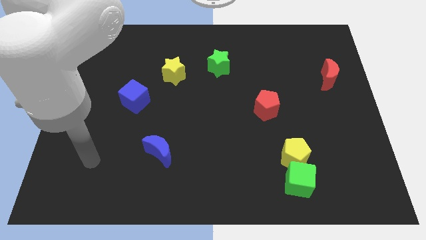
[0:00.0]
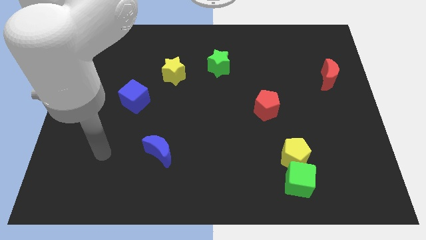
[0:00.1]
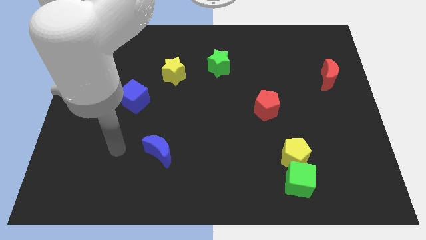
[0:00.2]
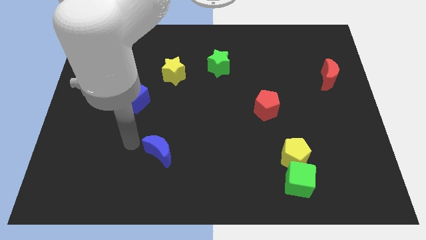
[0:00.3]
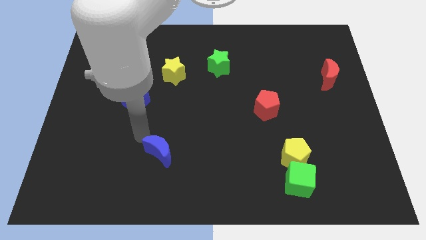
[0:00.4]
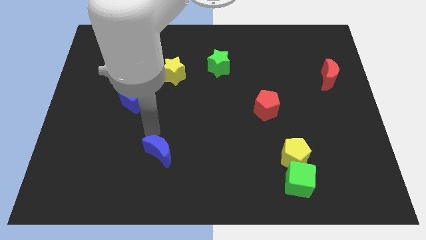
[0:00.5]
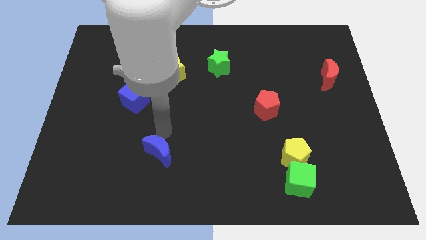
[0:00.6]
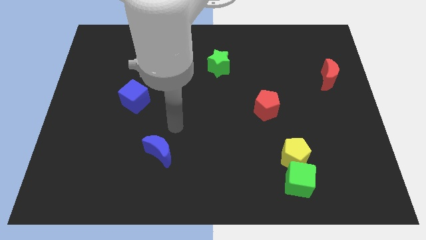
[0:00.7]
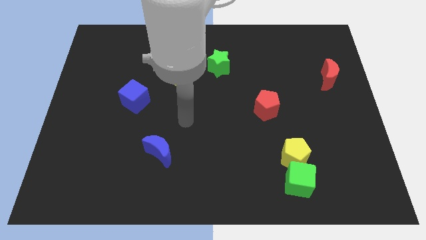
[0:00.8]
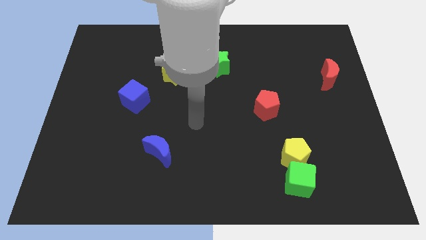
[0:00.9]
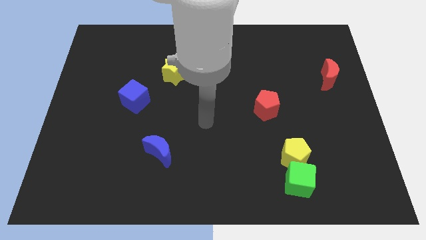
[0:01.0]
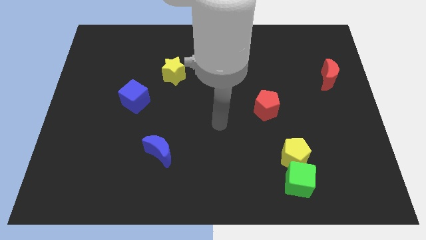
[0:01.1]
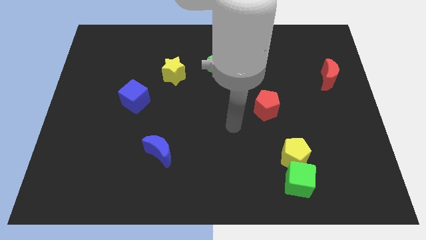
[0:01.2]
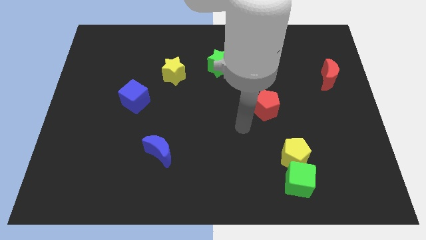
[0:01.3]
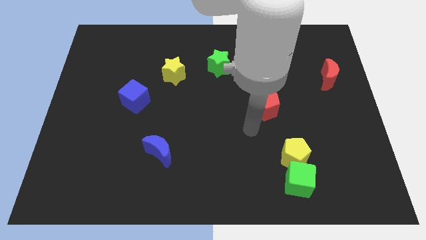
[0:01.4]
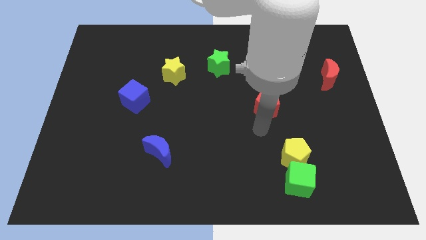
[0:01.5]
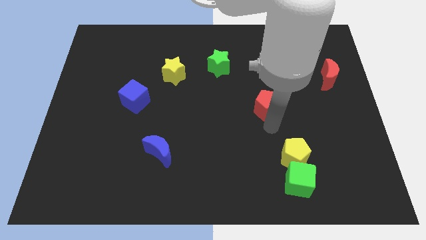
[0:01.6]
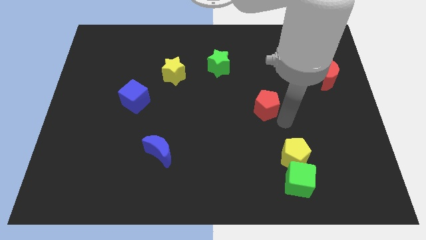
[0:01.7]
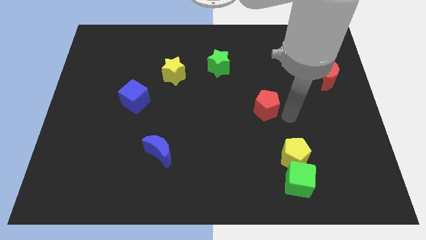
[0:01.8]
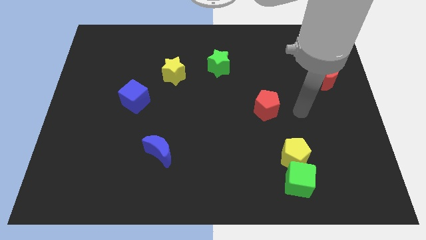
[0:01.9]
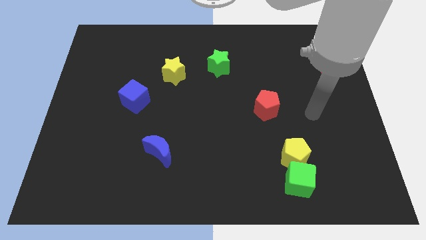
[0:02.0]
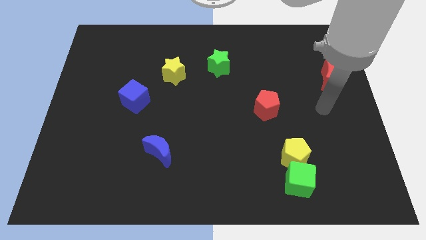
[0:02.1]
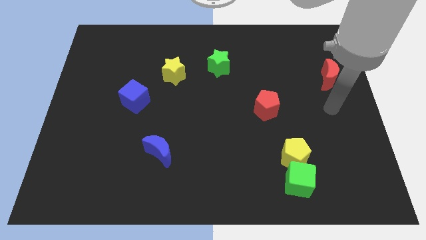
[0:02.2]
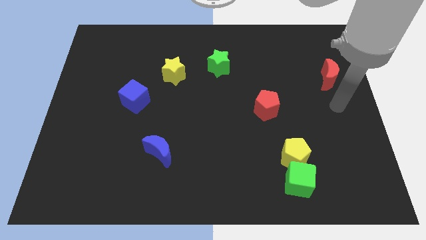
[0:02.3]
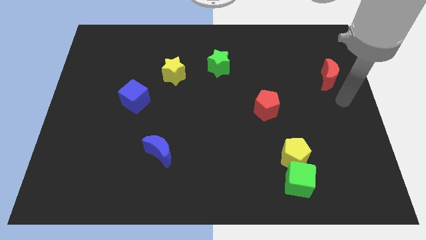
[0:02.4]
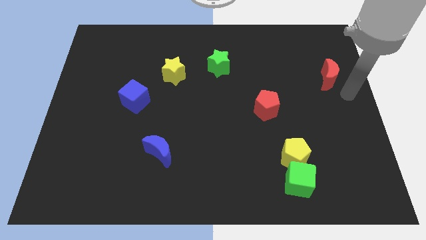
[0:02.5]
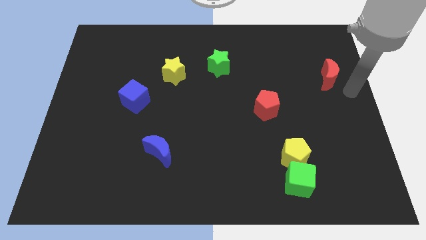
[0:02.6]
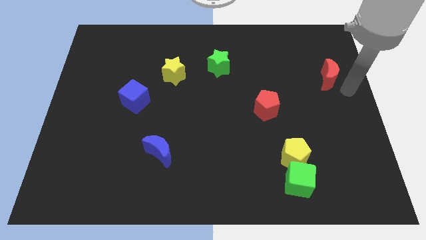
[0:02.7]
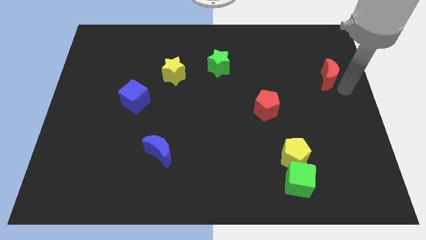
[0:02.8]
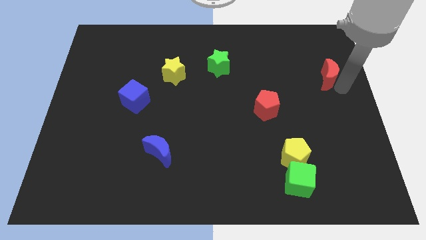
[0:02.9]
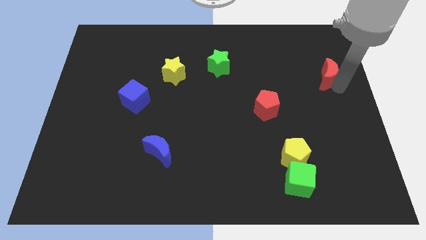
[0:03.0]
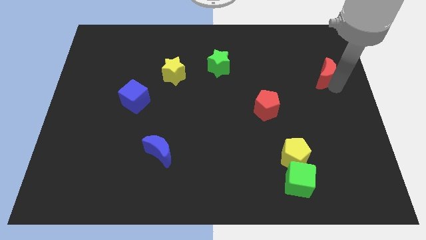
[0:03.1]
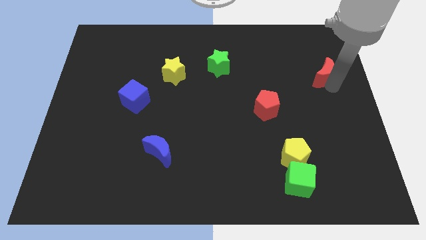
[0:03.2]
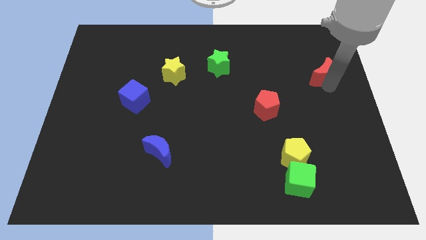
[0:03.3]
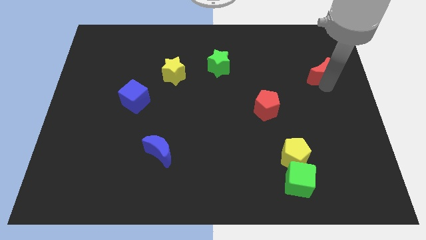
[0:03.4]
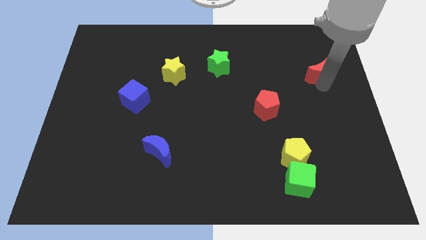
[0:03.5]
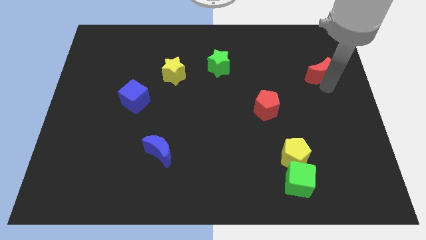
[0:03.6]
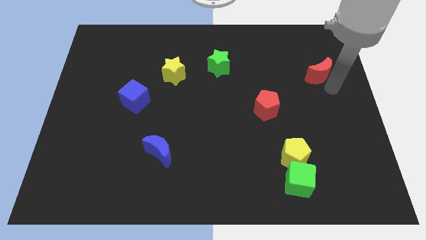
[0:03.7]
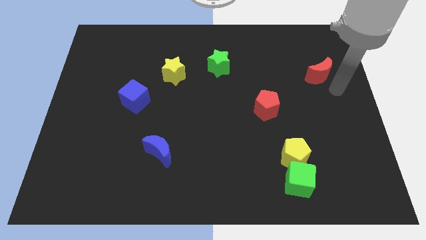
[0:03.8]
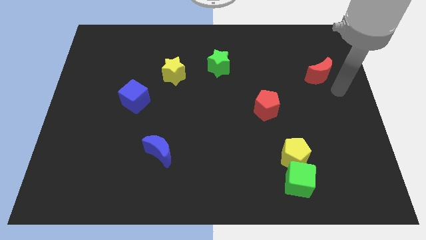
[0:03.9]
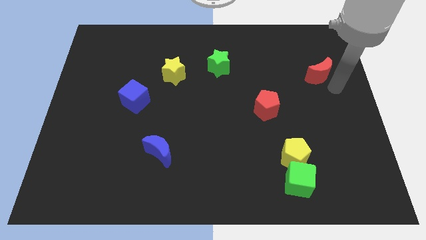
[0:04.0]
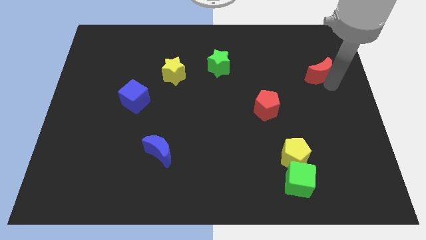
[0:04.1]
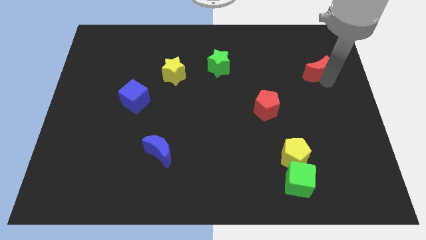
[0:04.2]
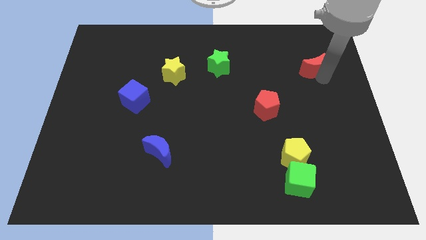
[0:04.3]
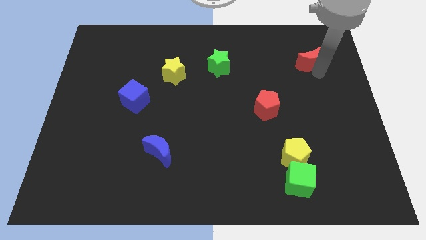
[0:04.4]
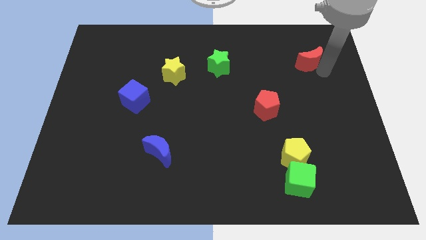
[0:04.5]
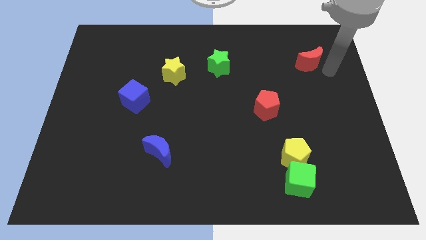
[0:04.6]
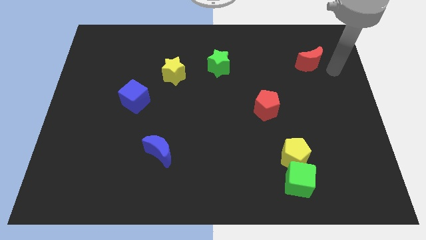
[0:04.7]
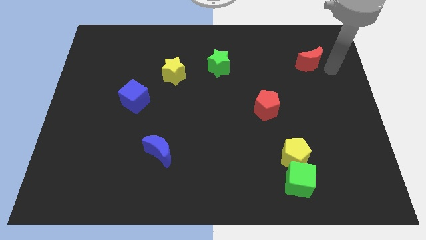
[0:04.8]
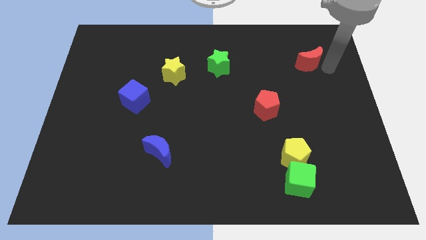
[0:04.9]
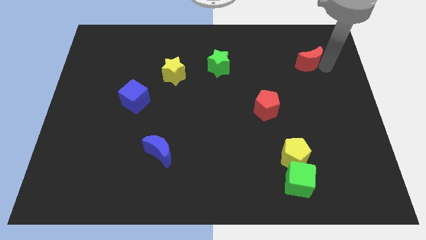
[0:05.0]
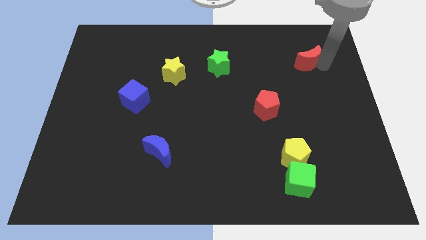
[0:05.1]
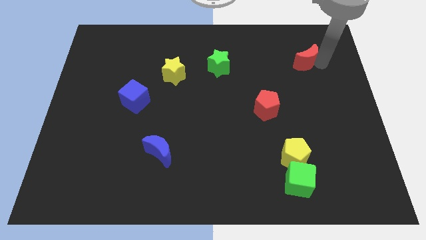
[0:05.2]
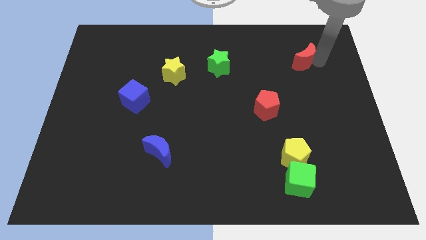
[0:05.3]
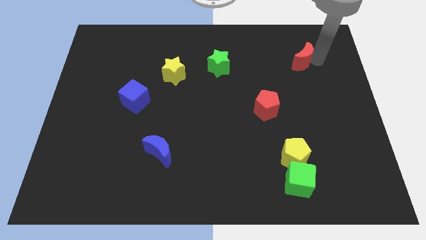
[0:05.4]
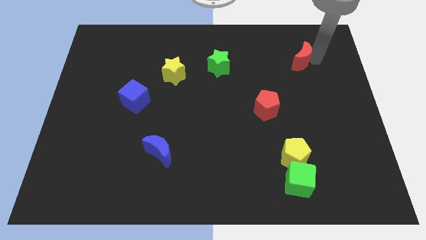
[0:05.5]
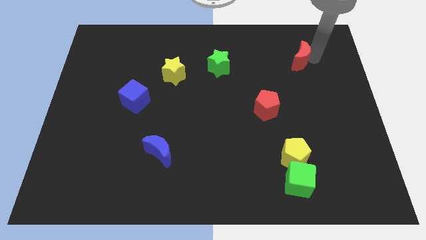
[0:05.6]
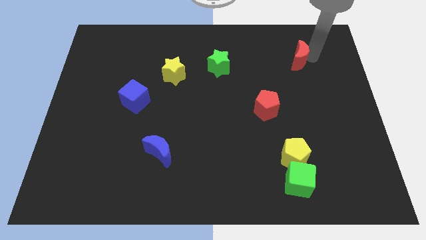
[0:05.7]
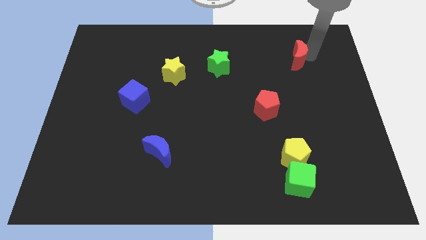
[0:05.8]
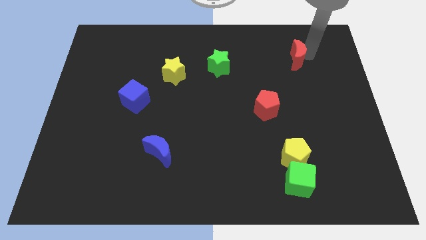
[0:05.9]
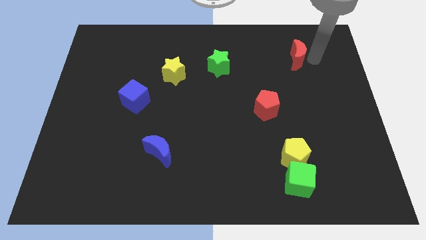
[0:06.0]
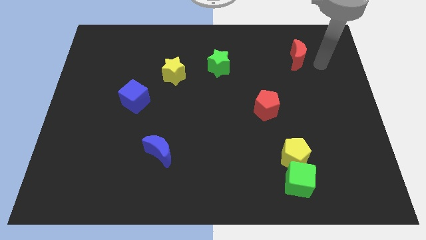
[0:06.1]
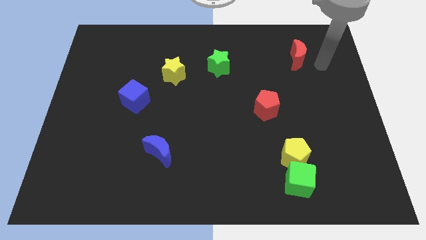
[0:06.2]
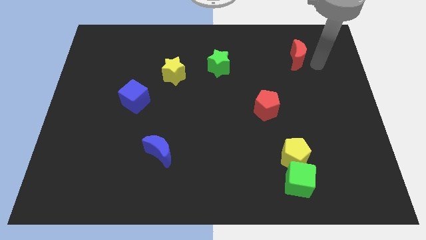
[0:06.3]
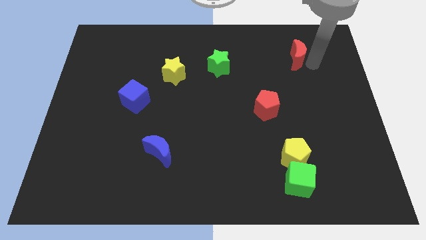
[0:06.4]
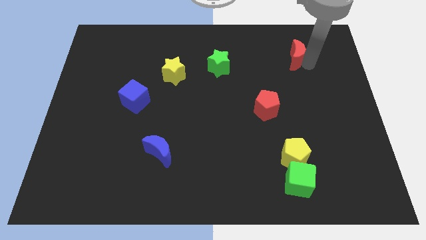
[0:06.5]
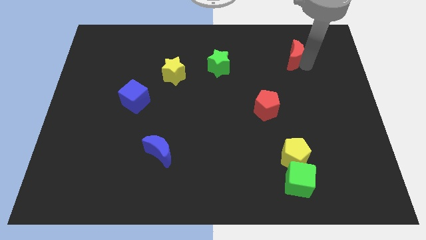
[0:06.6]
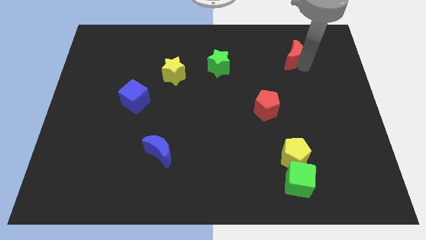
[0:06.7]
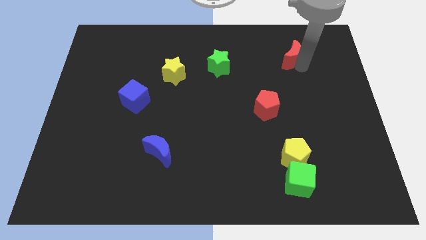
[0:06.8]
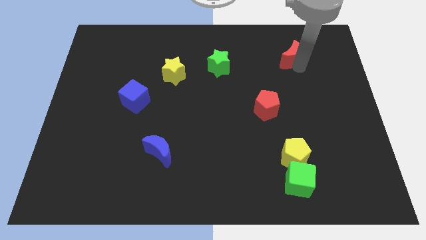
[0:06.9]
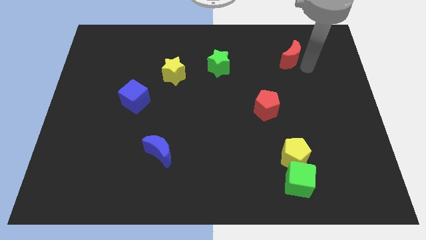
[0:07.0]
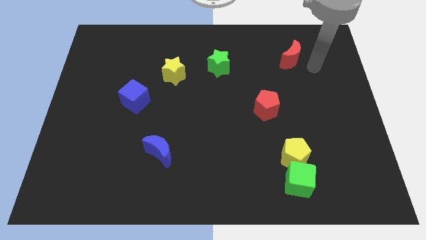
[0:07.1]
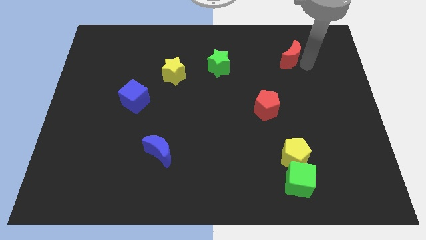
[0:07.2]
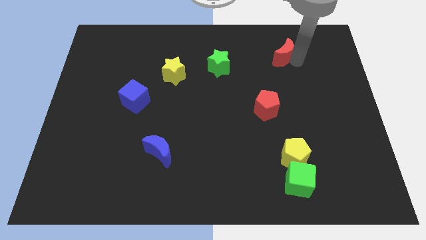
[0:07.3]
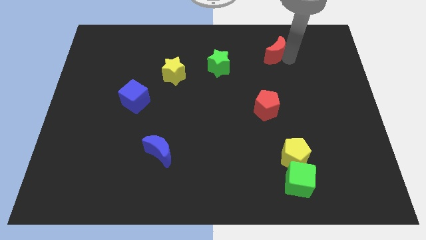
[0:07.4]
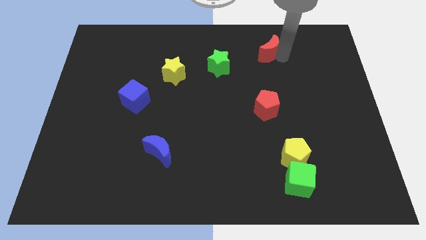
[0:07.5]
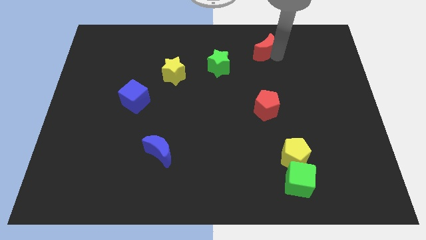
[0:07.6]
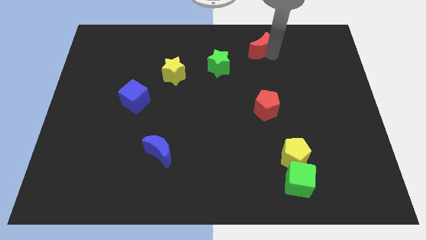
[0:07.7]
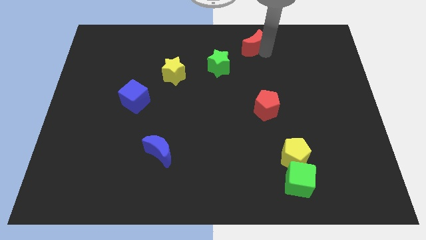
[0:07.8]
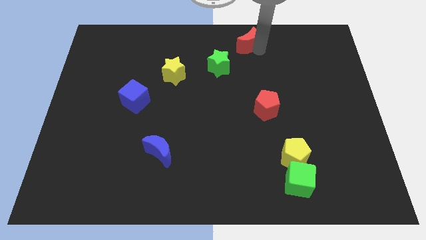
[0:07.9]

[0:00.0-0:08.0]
push the red moon to the towards your base
